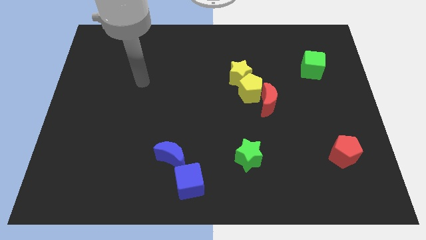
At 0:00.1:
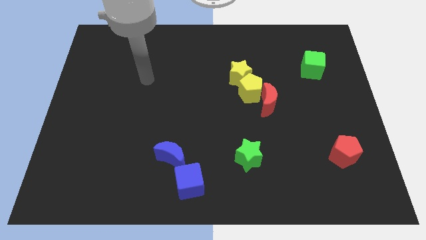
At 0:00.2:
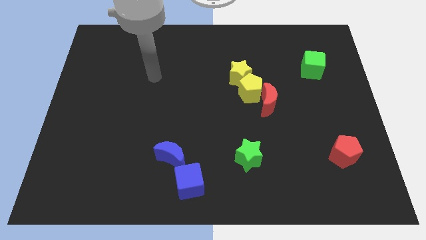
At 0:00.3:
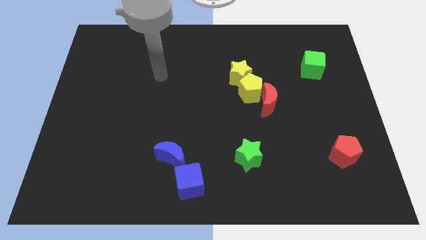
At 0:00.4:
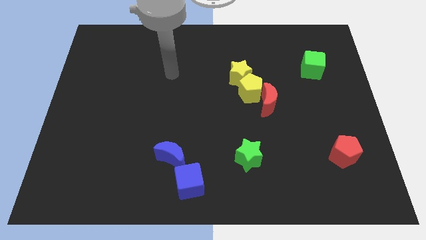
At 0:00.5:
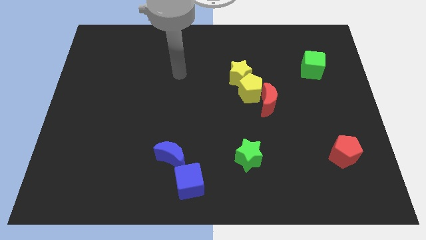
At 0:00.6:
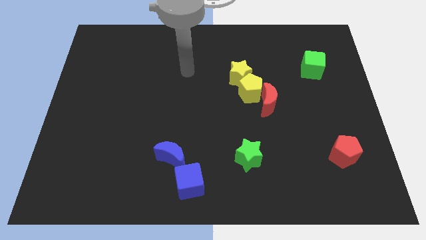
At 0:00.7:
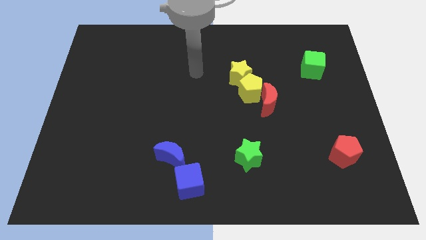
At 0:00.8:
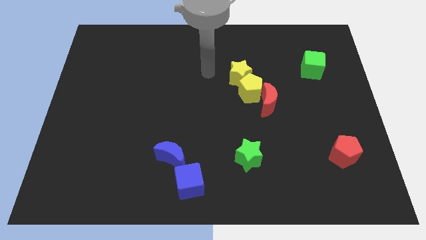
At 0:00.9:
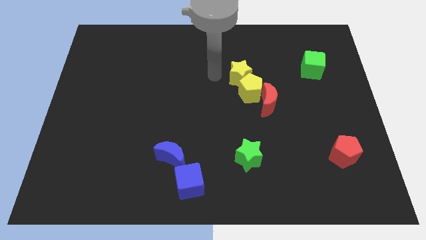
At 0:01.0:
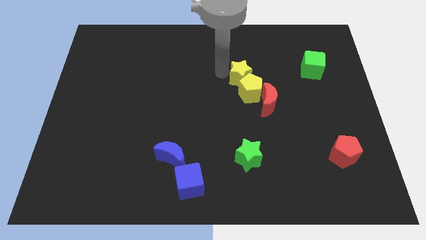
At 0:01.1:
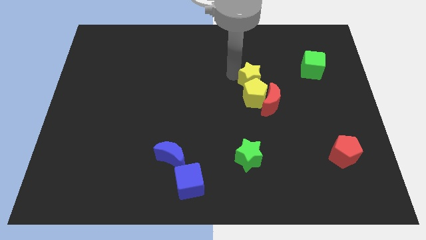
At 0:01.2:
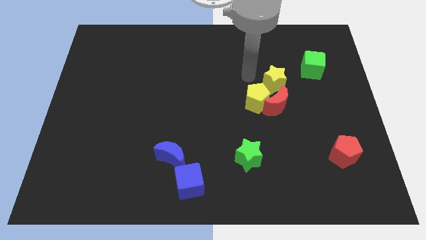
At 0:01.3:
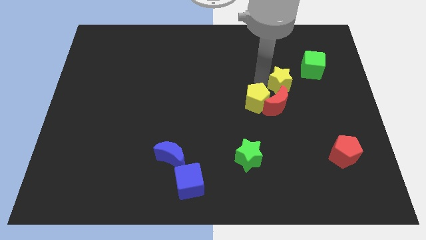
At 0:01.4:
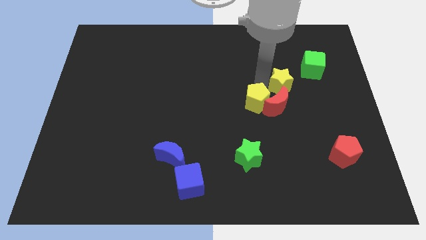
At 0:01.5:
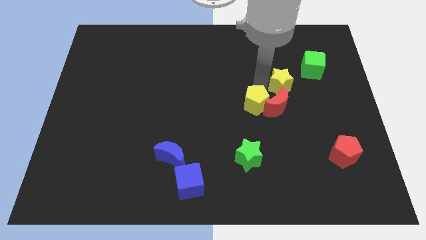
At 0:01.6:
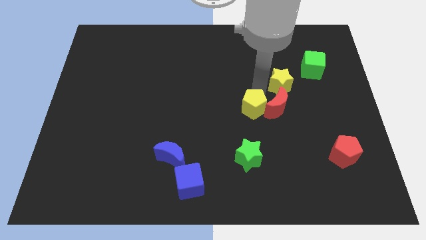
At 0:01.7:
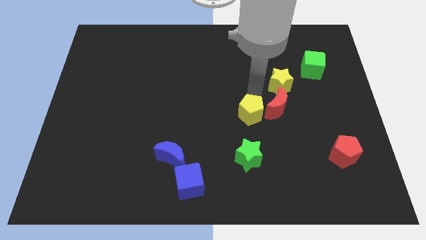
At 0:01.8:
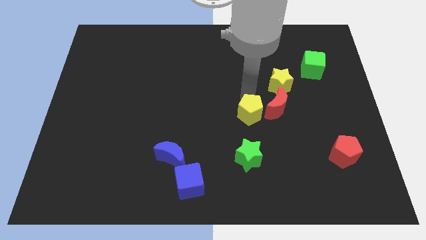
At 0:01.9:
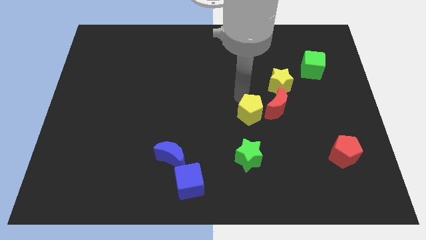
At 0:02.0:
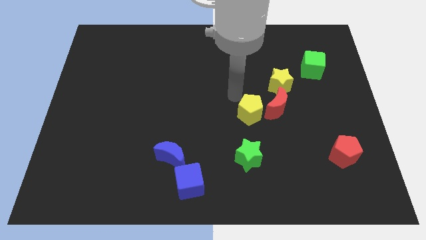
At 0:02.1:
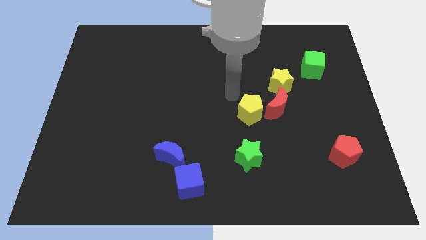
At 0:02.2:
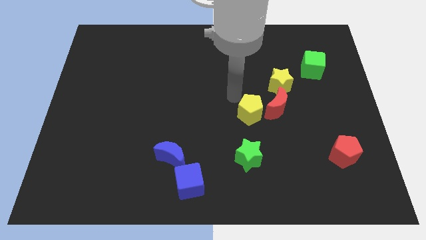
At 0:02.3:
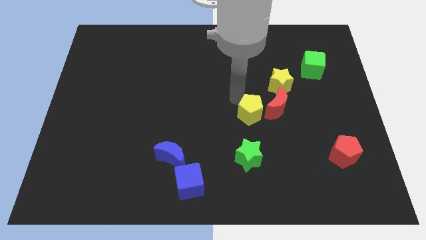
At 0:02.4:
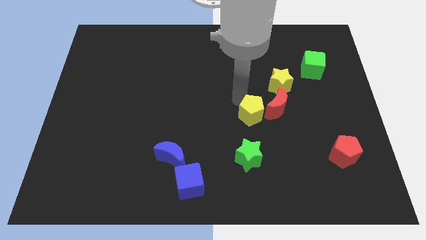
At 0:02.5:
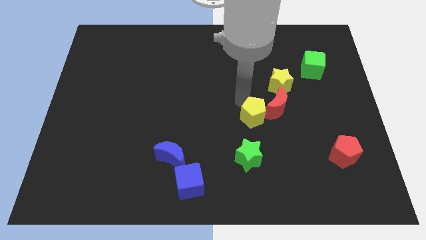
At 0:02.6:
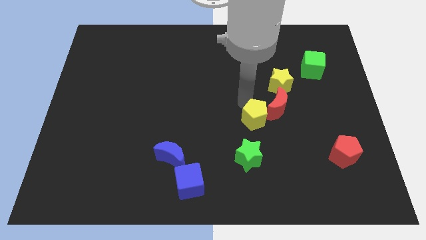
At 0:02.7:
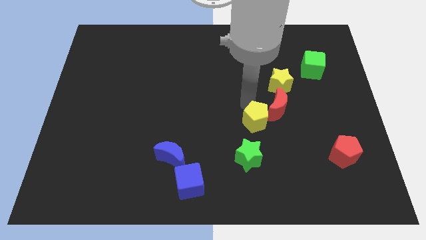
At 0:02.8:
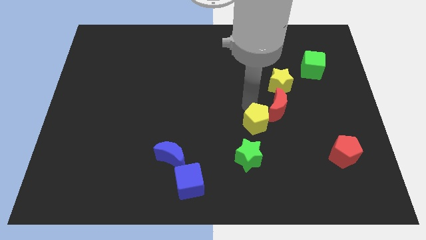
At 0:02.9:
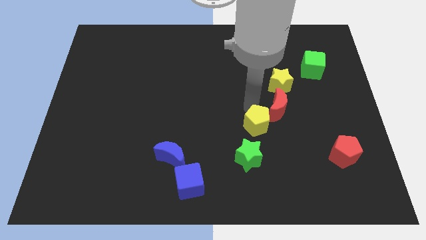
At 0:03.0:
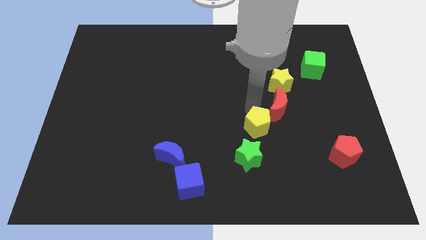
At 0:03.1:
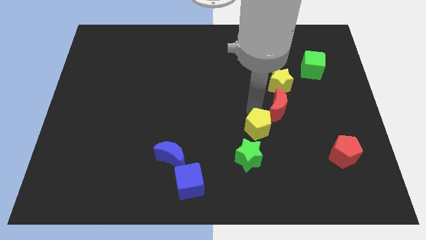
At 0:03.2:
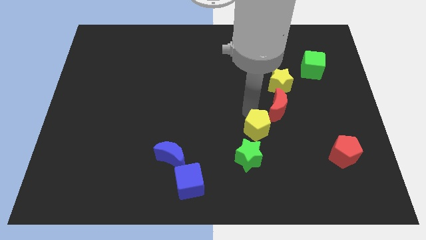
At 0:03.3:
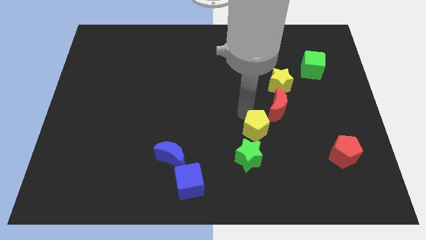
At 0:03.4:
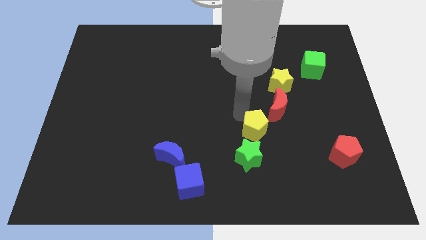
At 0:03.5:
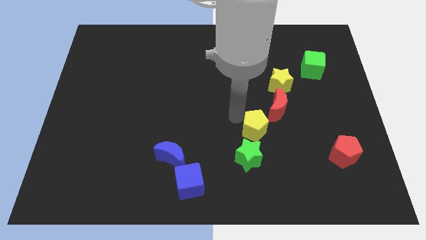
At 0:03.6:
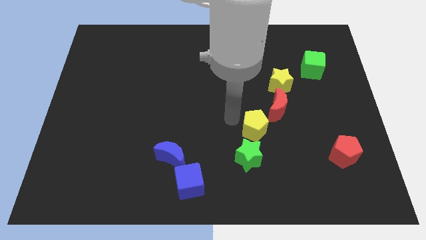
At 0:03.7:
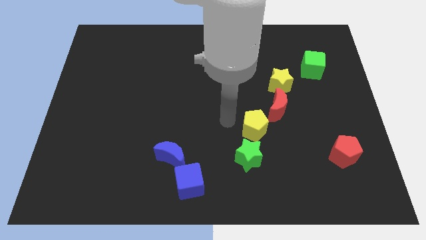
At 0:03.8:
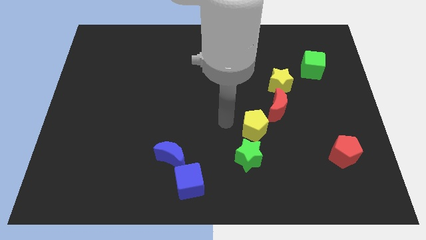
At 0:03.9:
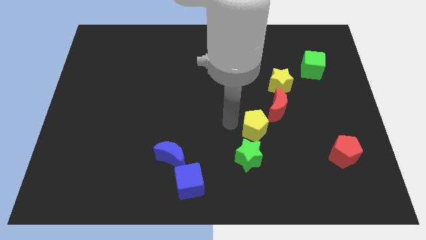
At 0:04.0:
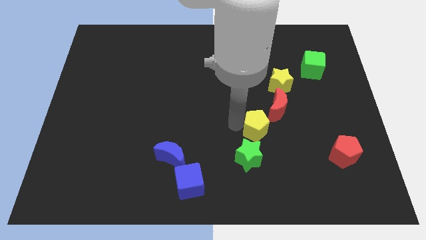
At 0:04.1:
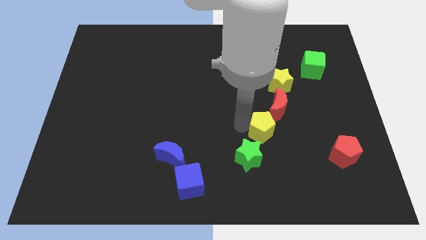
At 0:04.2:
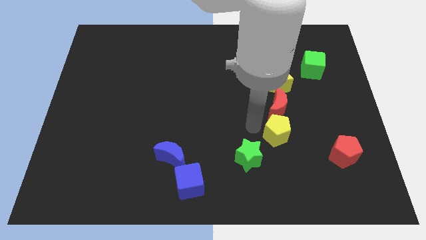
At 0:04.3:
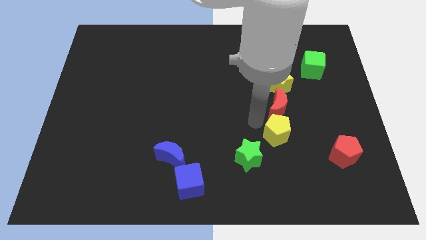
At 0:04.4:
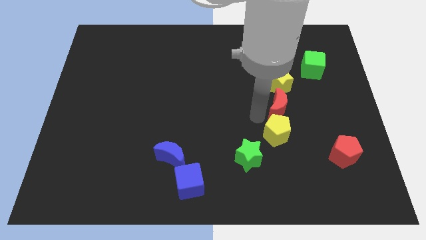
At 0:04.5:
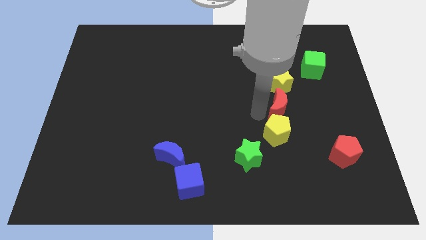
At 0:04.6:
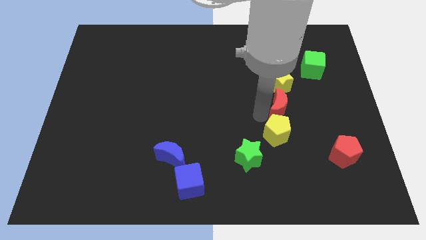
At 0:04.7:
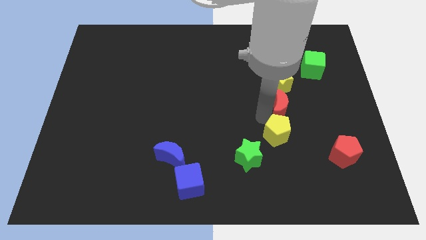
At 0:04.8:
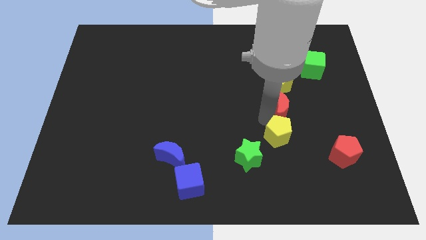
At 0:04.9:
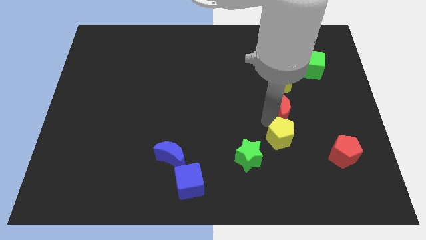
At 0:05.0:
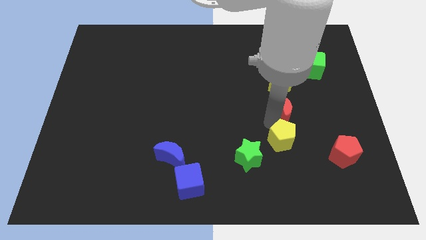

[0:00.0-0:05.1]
put the yellow pentagon to the right side of the green star

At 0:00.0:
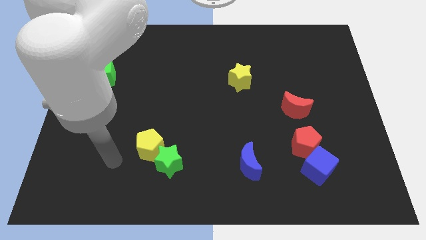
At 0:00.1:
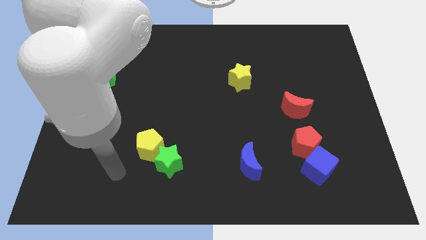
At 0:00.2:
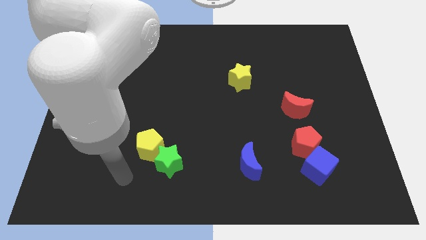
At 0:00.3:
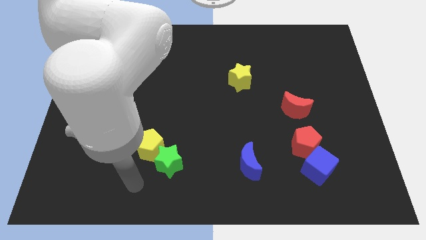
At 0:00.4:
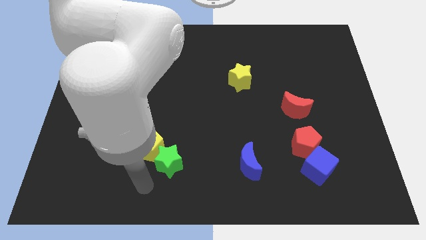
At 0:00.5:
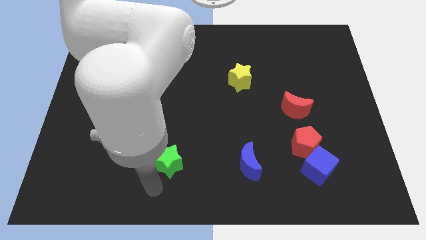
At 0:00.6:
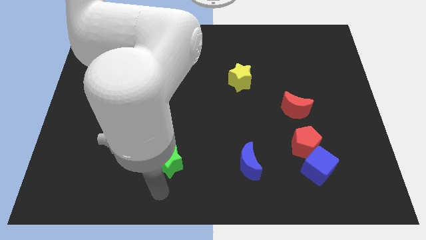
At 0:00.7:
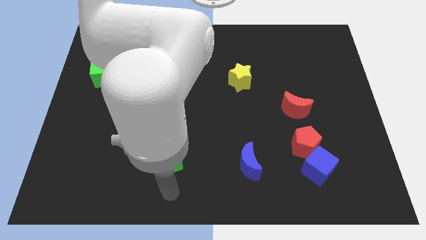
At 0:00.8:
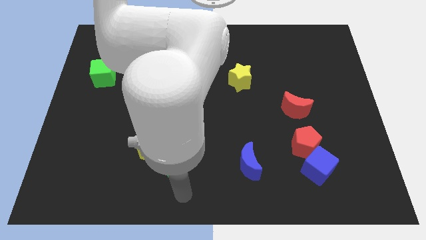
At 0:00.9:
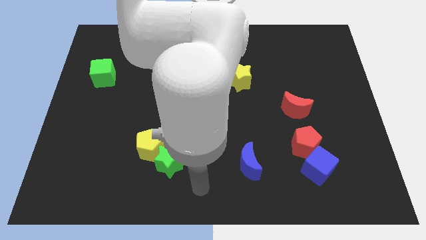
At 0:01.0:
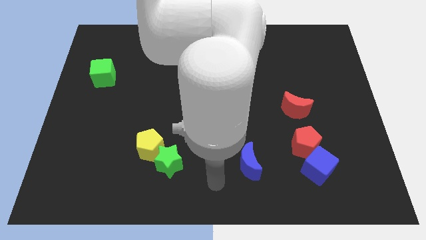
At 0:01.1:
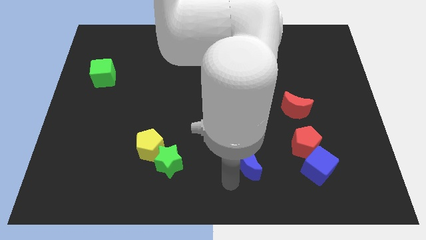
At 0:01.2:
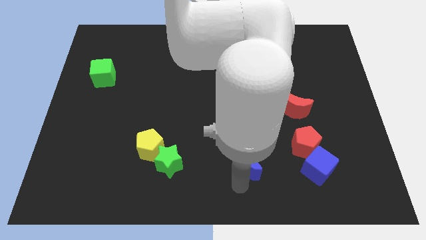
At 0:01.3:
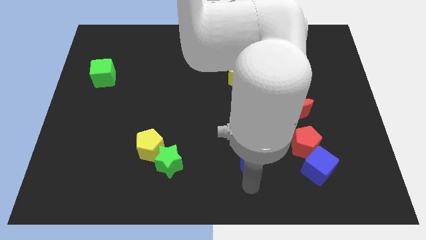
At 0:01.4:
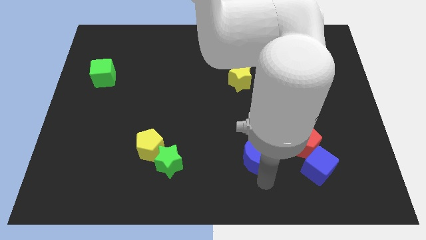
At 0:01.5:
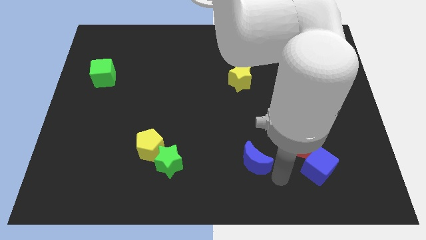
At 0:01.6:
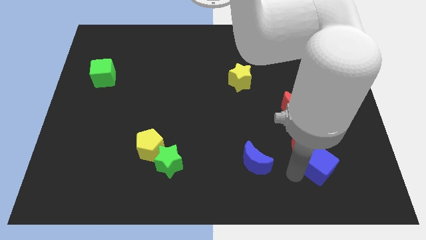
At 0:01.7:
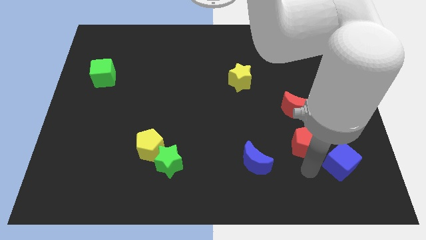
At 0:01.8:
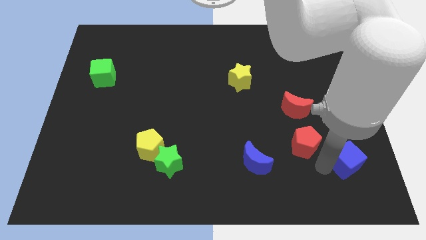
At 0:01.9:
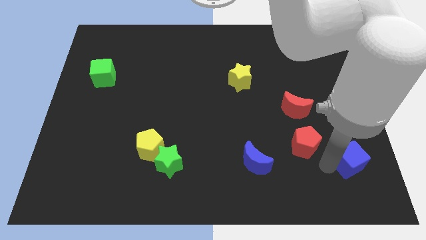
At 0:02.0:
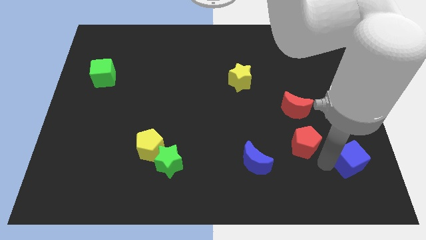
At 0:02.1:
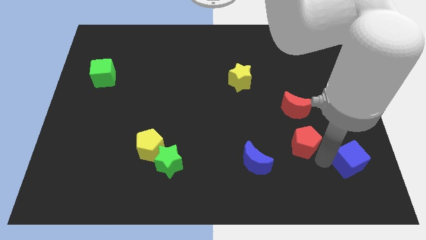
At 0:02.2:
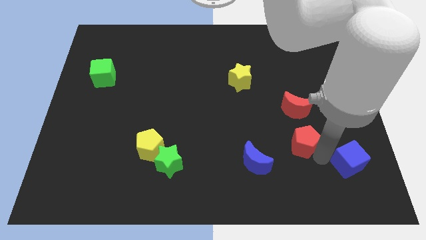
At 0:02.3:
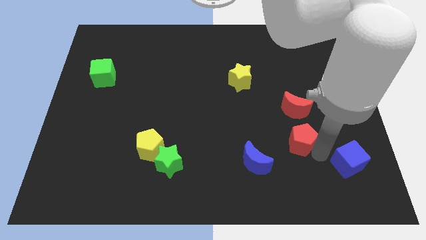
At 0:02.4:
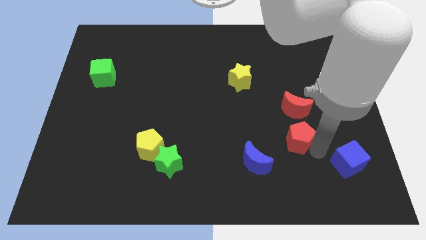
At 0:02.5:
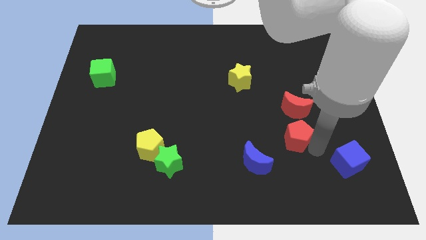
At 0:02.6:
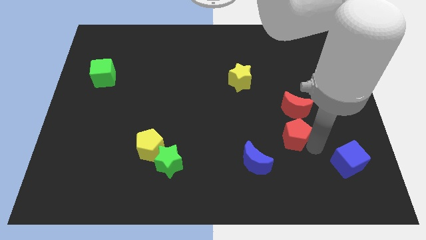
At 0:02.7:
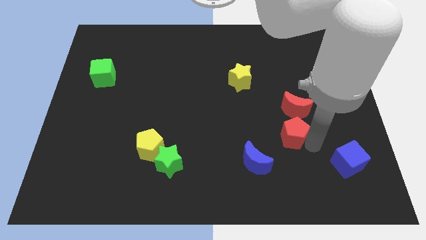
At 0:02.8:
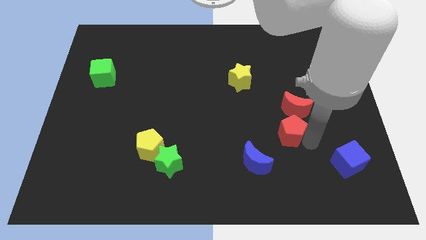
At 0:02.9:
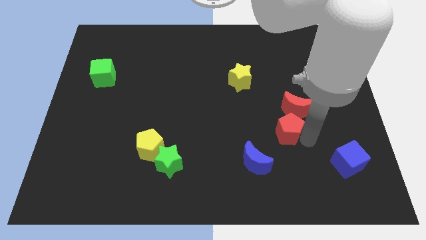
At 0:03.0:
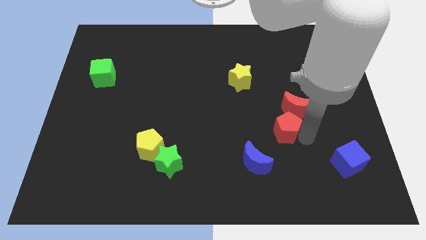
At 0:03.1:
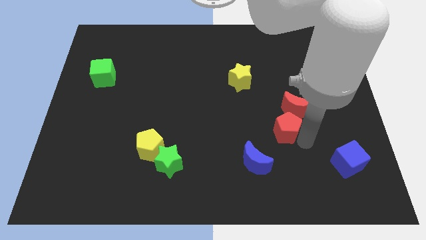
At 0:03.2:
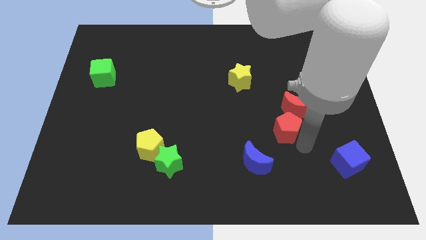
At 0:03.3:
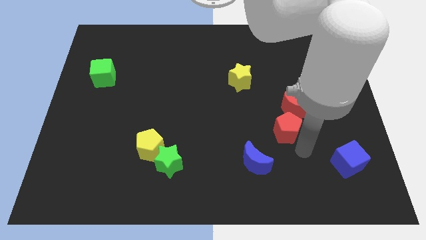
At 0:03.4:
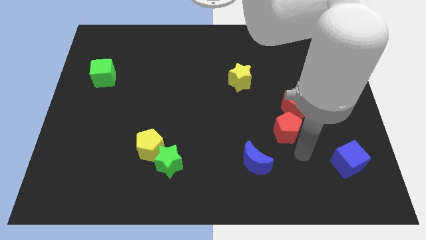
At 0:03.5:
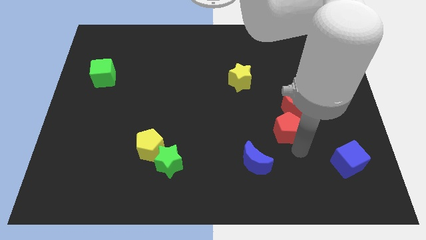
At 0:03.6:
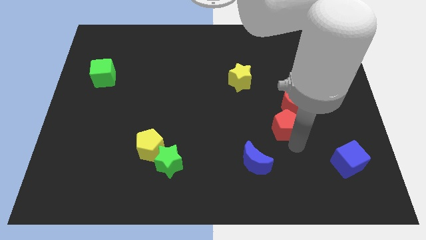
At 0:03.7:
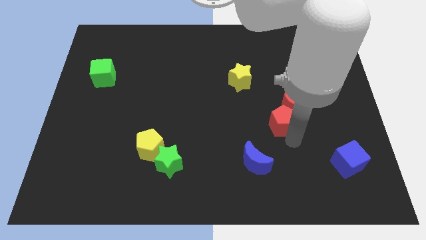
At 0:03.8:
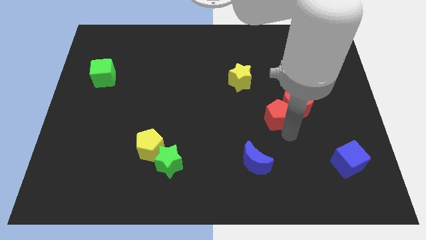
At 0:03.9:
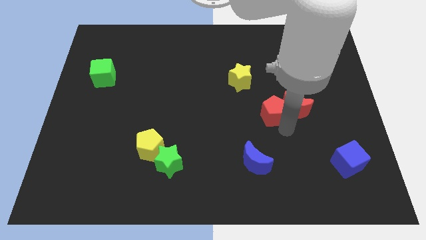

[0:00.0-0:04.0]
push the red pentagon diagonally down and to the right of the yellow star
